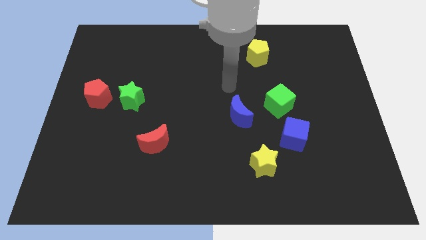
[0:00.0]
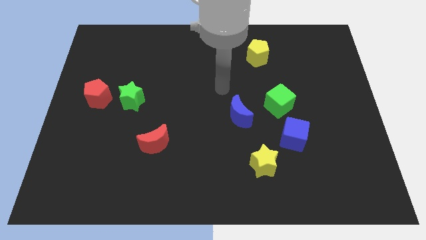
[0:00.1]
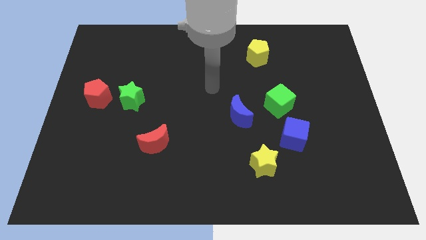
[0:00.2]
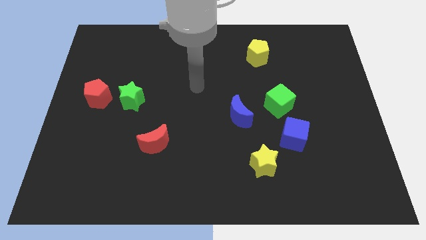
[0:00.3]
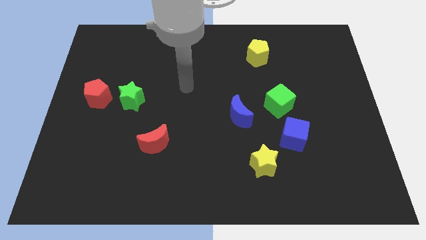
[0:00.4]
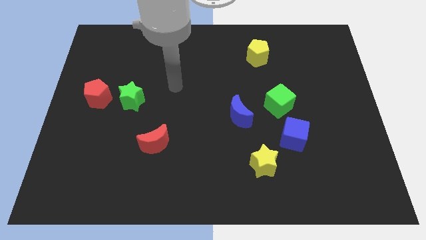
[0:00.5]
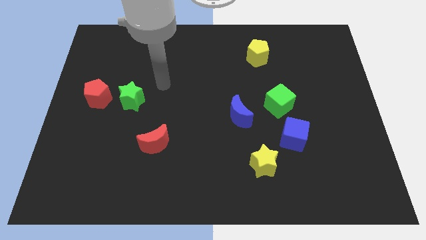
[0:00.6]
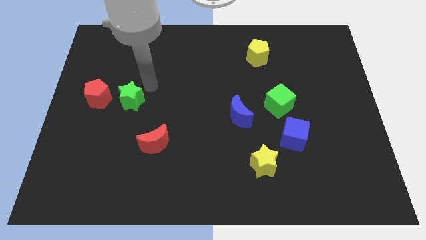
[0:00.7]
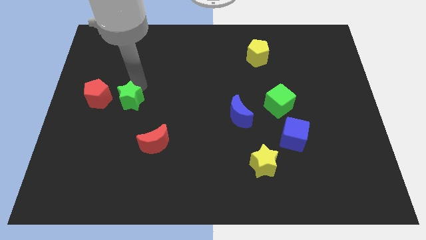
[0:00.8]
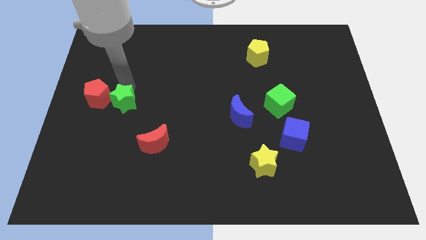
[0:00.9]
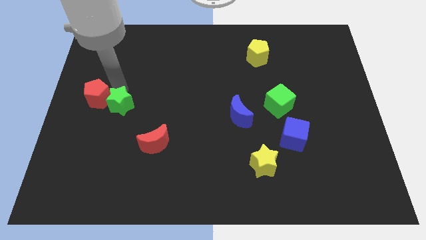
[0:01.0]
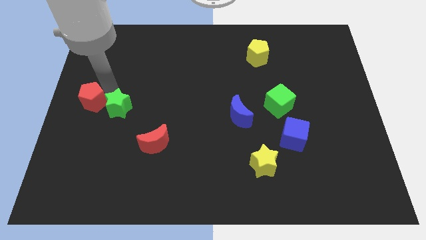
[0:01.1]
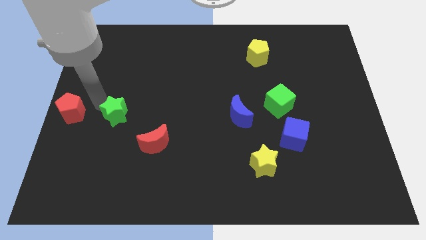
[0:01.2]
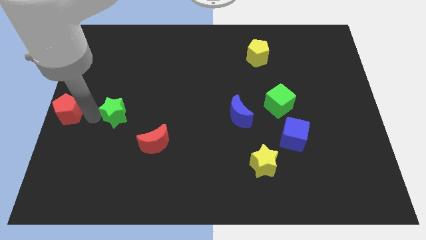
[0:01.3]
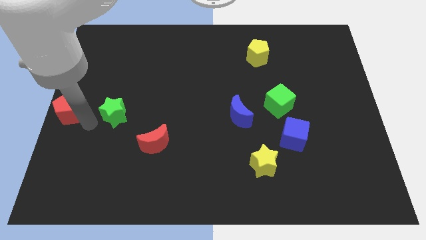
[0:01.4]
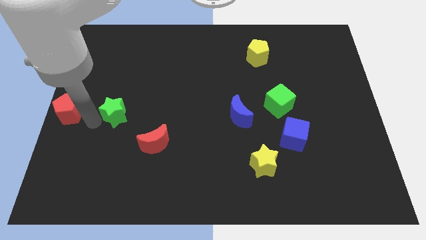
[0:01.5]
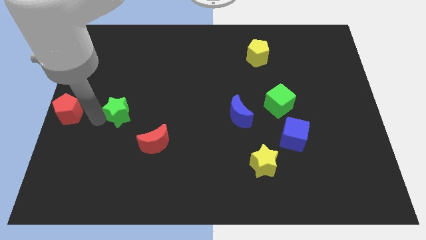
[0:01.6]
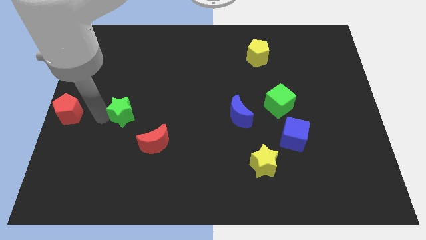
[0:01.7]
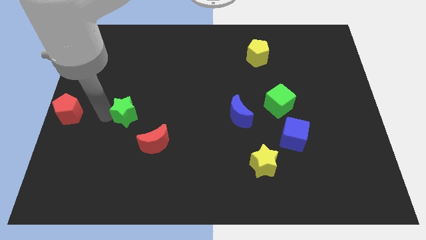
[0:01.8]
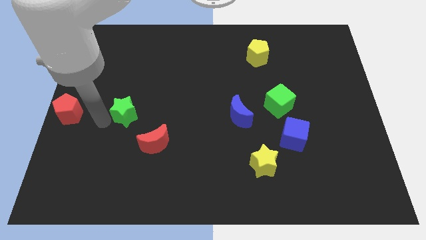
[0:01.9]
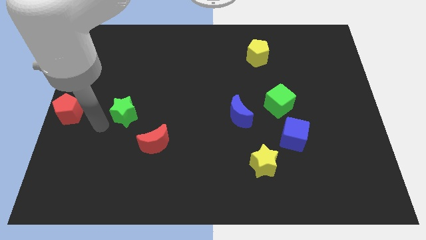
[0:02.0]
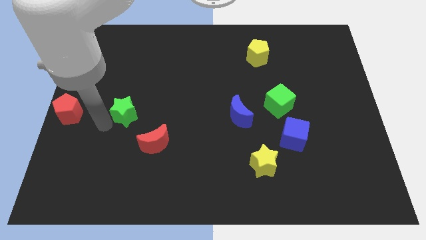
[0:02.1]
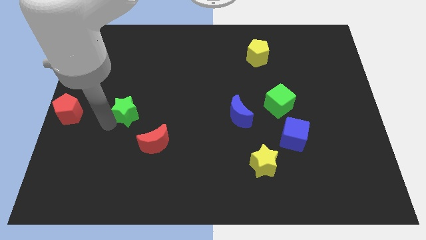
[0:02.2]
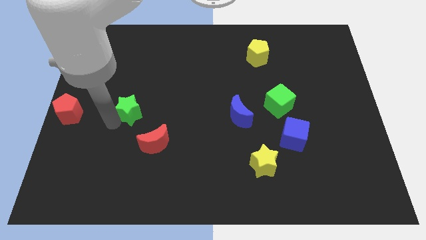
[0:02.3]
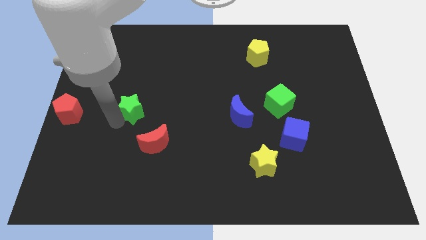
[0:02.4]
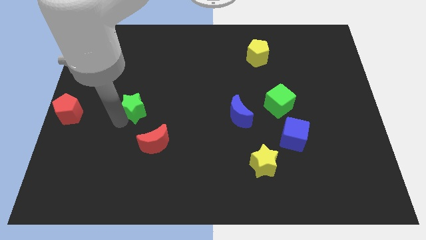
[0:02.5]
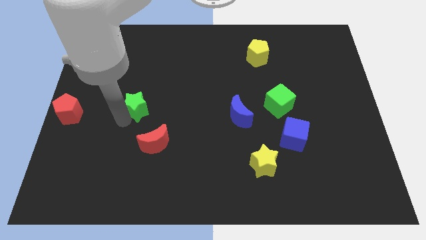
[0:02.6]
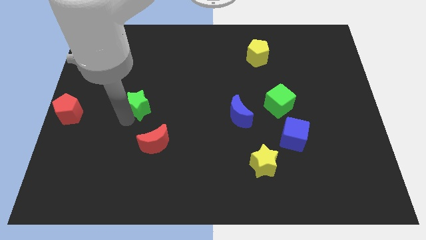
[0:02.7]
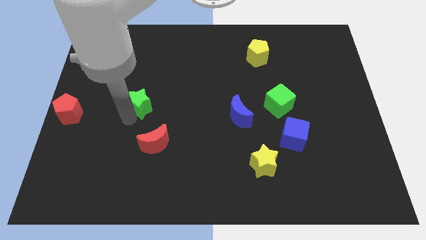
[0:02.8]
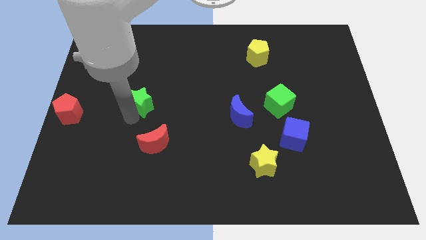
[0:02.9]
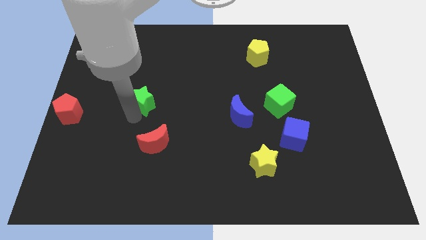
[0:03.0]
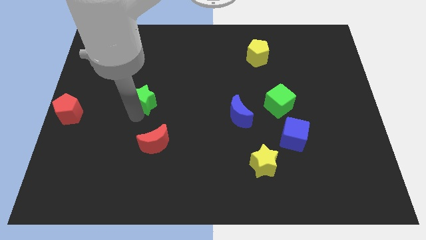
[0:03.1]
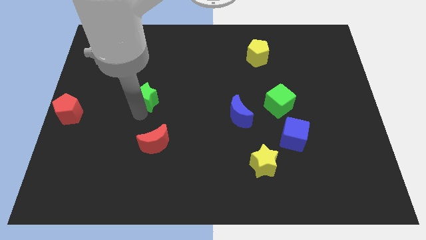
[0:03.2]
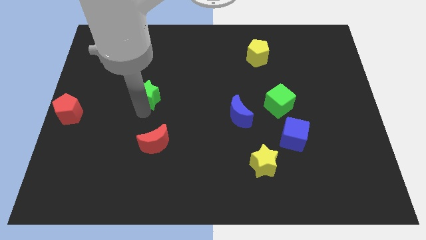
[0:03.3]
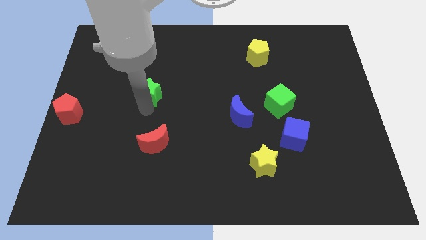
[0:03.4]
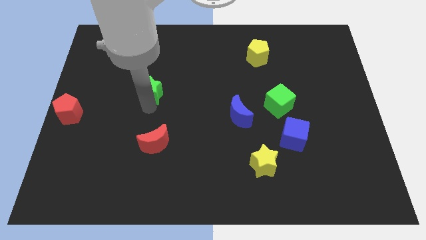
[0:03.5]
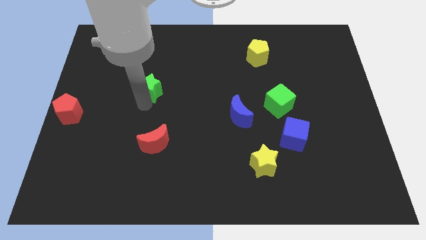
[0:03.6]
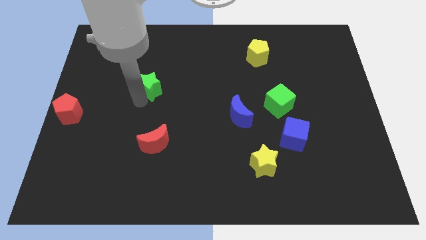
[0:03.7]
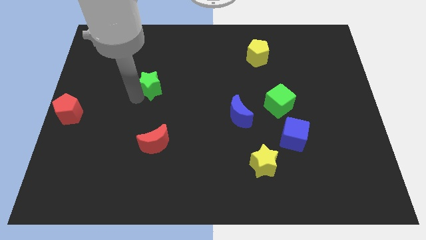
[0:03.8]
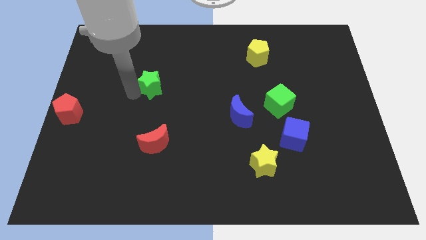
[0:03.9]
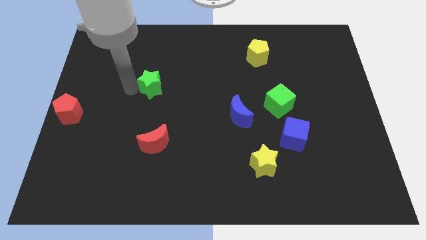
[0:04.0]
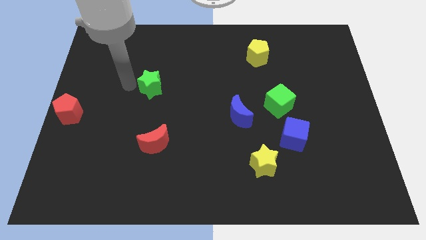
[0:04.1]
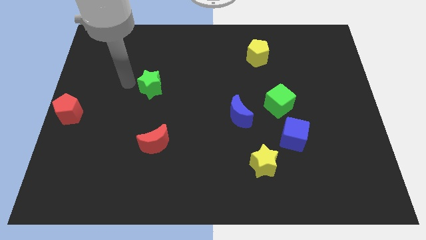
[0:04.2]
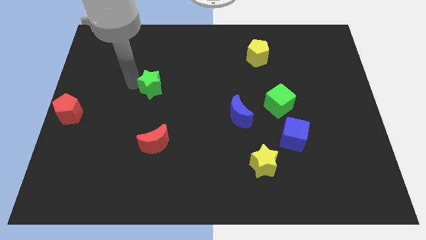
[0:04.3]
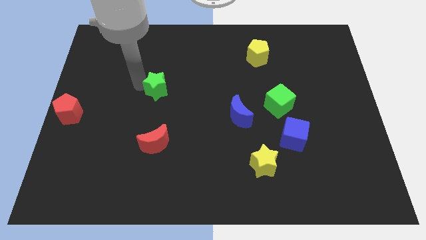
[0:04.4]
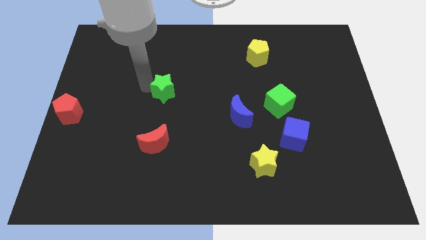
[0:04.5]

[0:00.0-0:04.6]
push the green star to the right somewhat

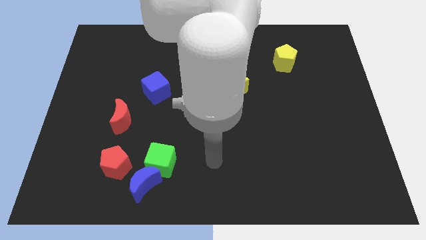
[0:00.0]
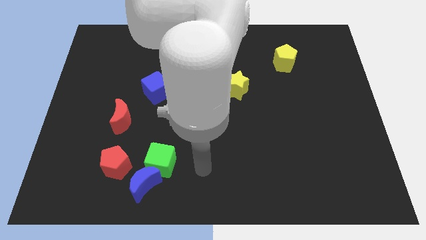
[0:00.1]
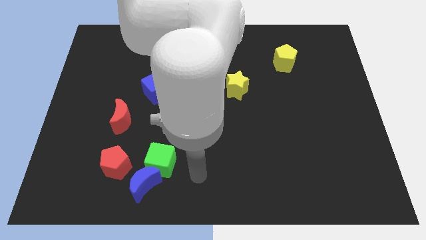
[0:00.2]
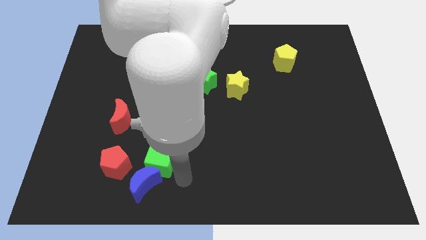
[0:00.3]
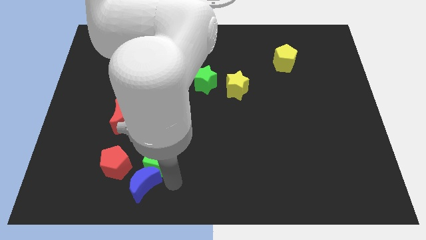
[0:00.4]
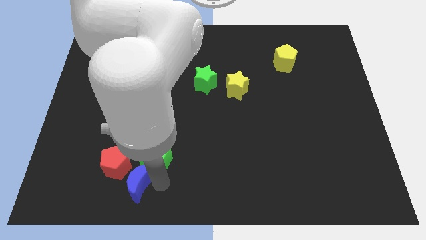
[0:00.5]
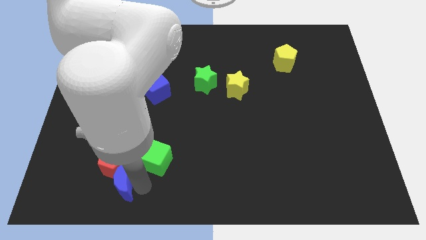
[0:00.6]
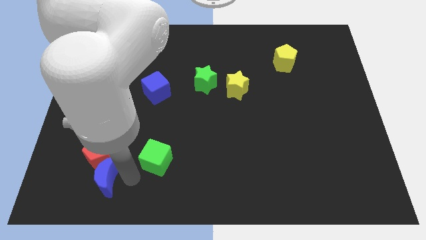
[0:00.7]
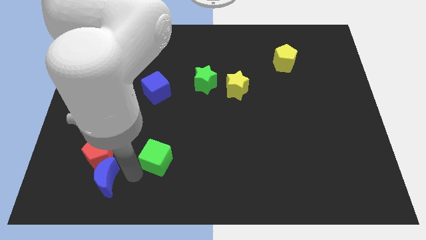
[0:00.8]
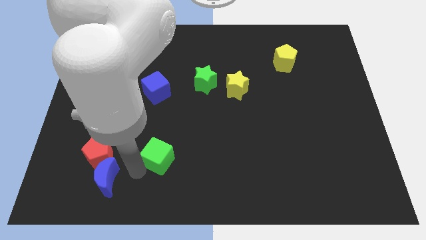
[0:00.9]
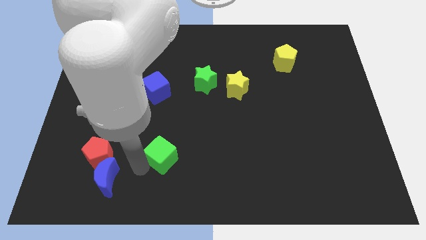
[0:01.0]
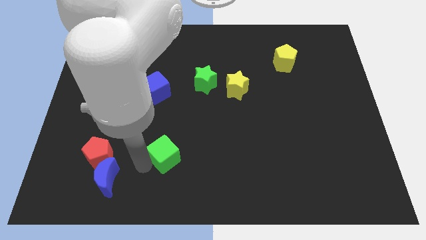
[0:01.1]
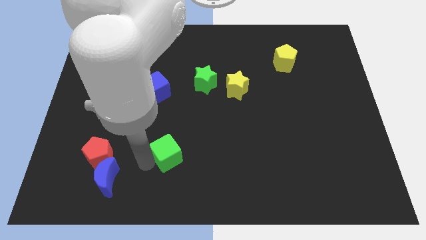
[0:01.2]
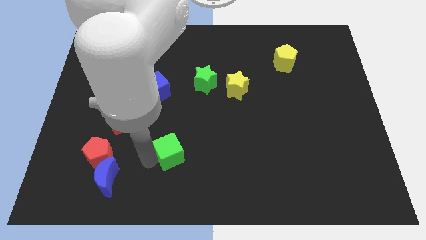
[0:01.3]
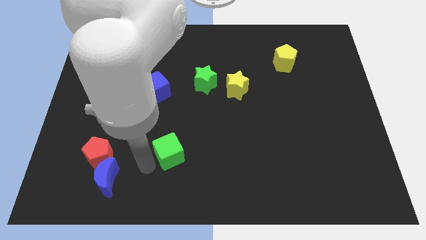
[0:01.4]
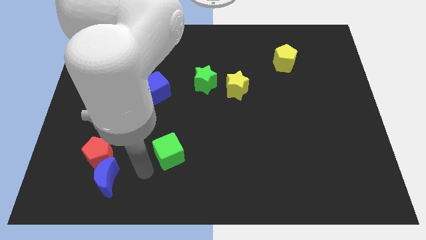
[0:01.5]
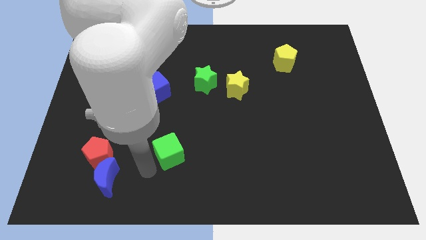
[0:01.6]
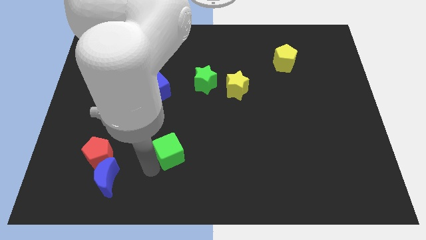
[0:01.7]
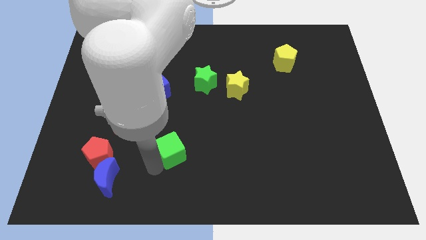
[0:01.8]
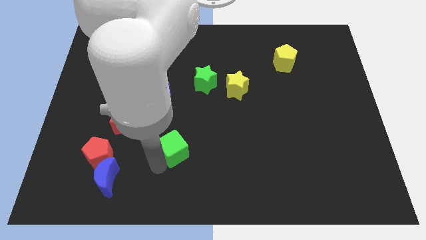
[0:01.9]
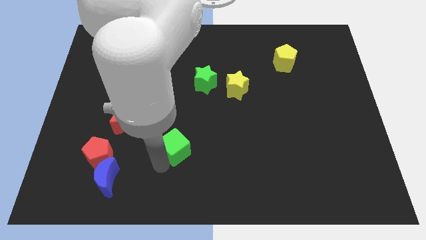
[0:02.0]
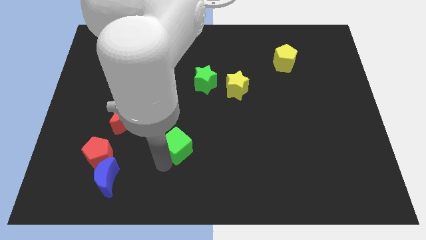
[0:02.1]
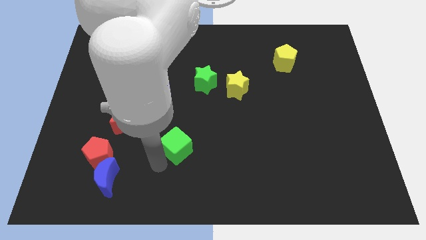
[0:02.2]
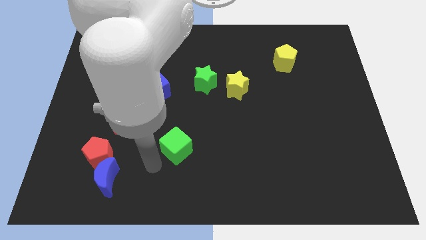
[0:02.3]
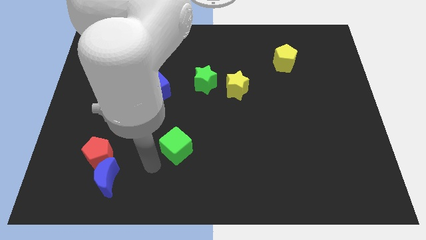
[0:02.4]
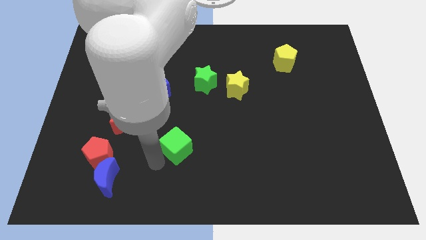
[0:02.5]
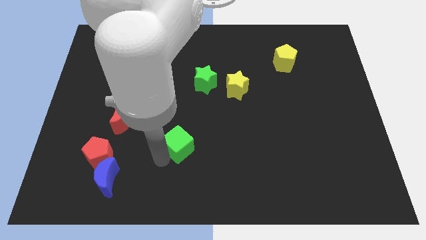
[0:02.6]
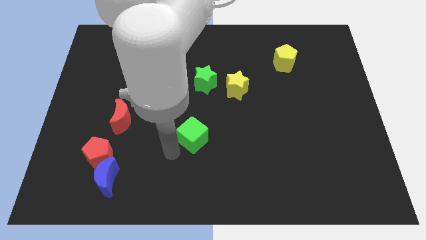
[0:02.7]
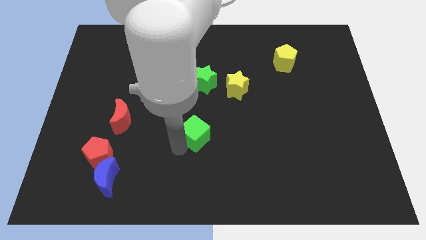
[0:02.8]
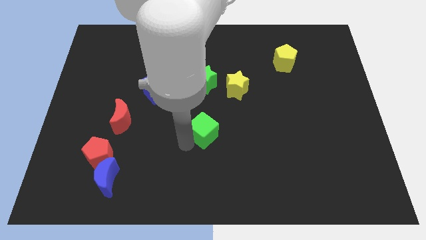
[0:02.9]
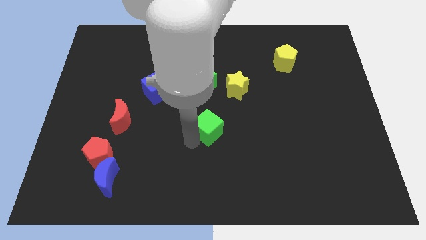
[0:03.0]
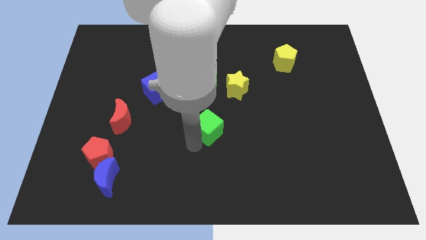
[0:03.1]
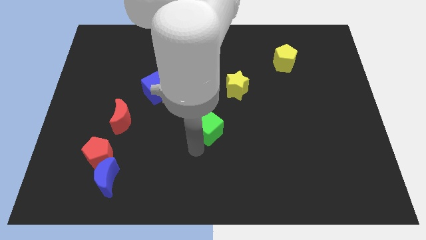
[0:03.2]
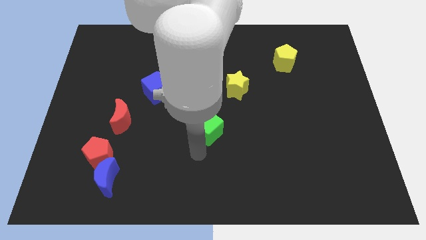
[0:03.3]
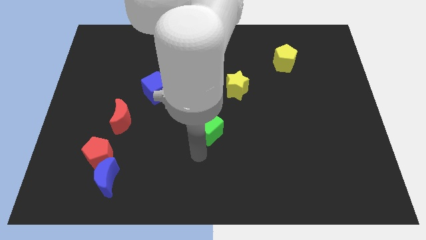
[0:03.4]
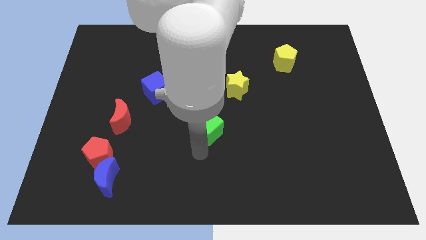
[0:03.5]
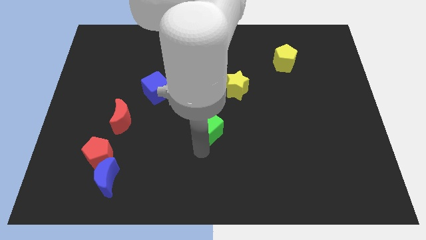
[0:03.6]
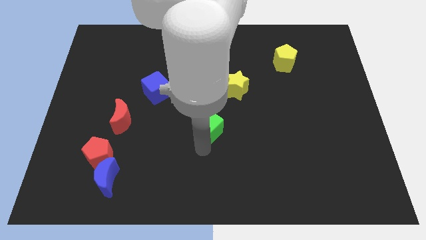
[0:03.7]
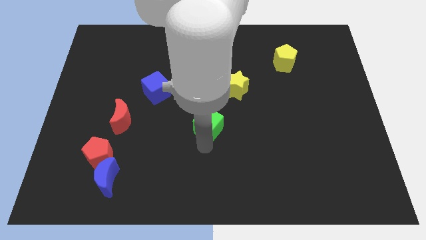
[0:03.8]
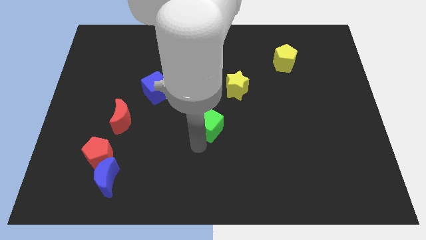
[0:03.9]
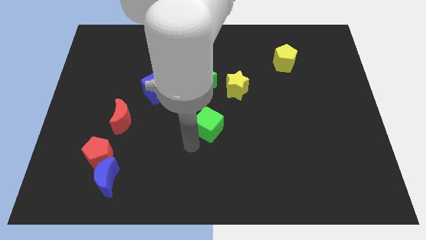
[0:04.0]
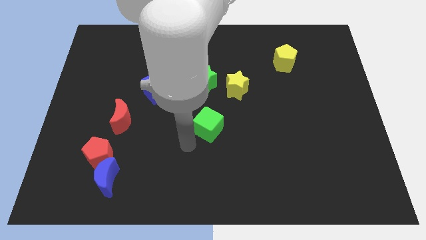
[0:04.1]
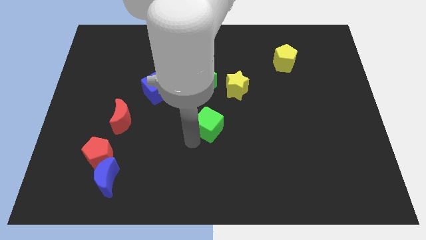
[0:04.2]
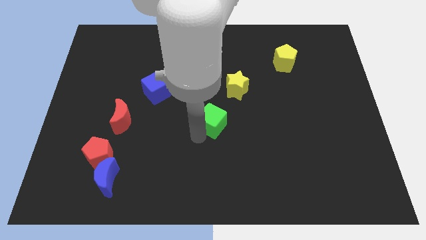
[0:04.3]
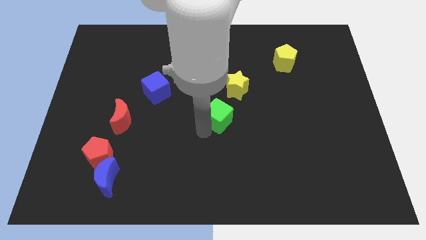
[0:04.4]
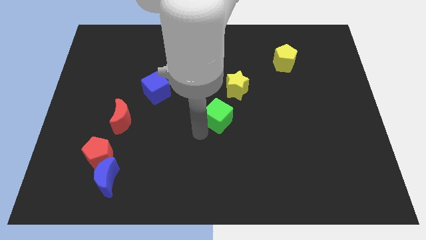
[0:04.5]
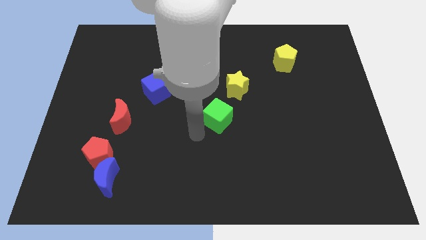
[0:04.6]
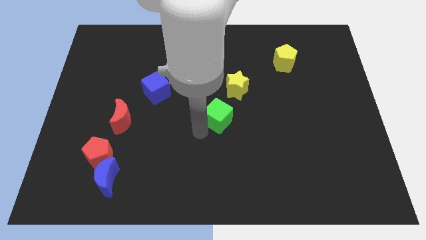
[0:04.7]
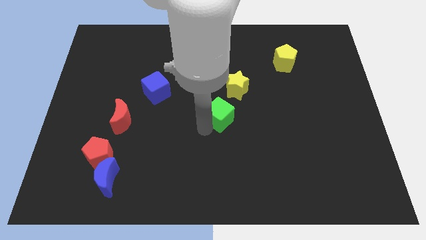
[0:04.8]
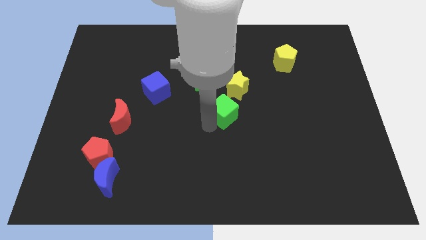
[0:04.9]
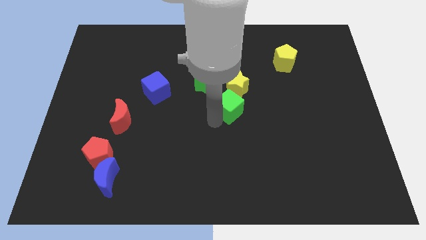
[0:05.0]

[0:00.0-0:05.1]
move the green cube upwards and to the right diagonally
